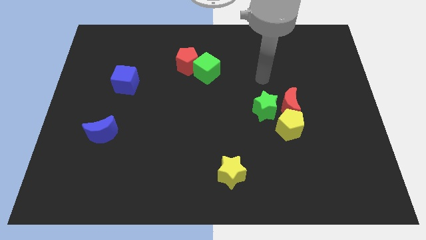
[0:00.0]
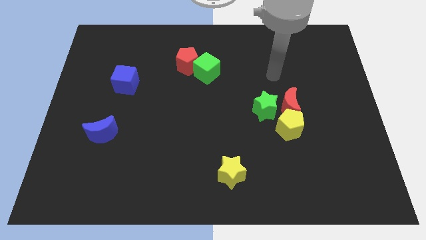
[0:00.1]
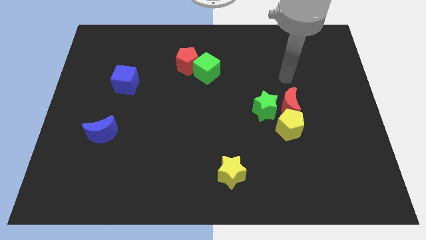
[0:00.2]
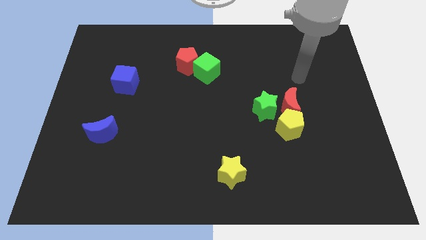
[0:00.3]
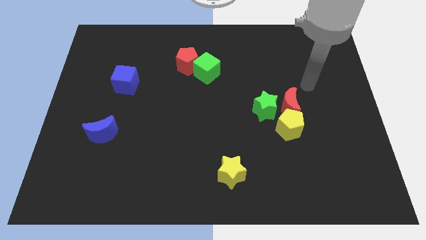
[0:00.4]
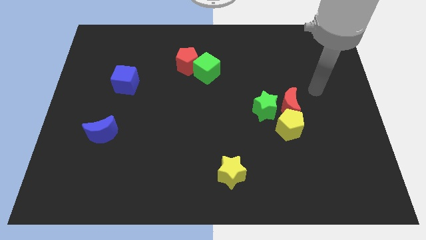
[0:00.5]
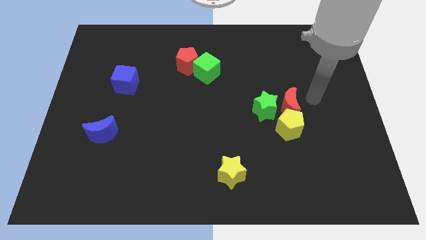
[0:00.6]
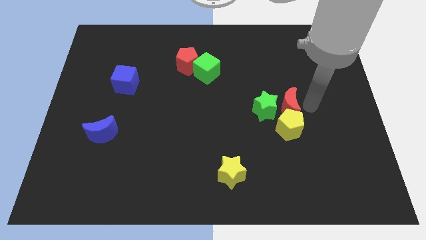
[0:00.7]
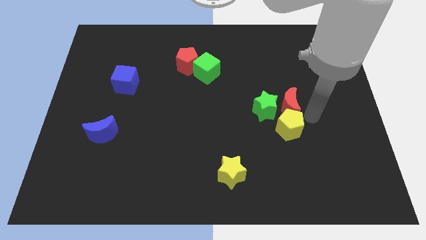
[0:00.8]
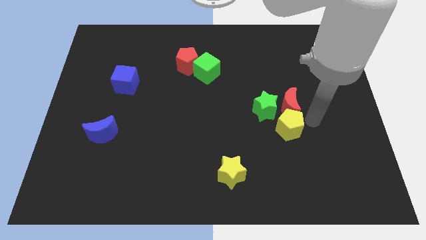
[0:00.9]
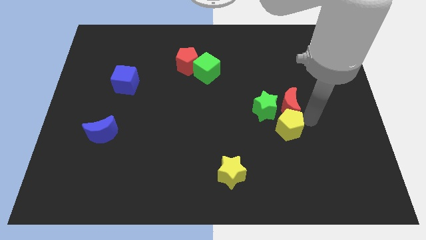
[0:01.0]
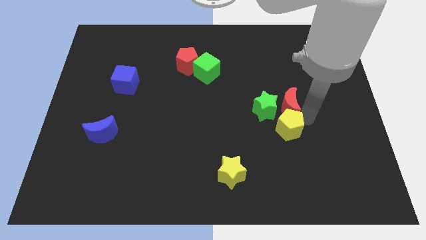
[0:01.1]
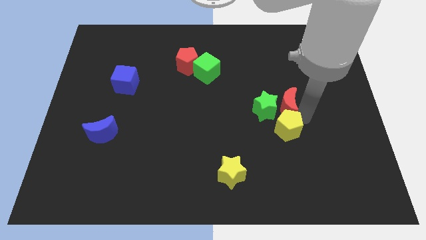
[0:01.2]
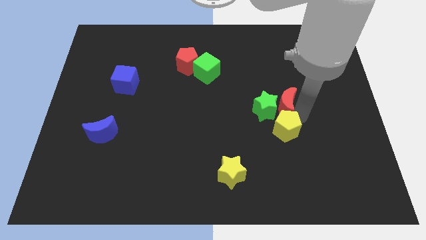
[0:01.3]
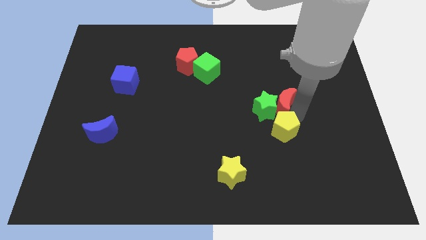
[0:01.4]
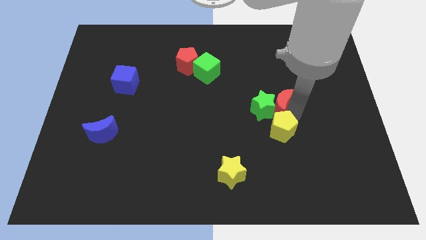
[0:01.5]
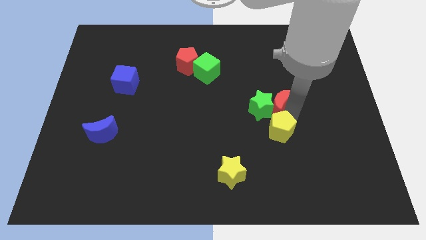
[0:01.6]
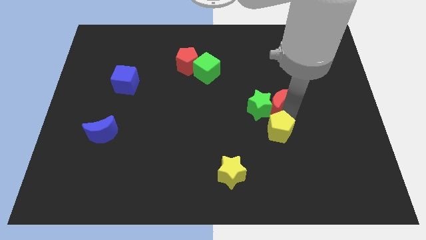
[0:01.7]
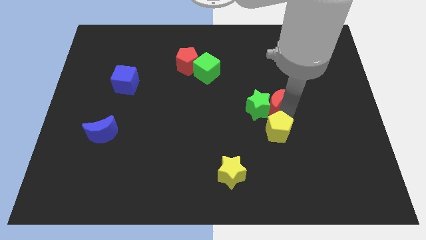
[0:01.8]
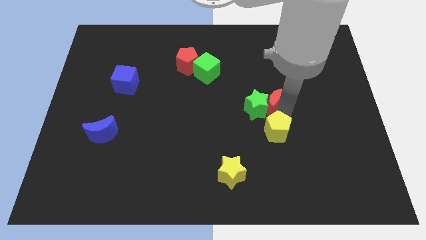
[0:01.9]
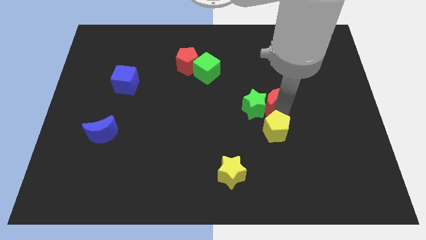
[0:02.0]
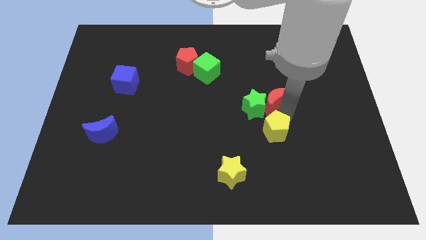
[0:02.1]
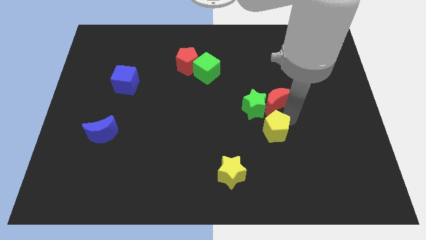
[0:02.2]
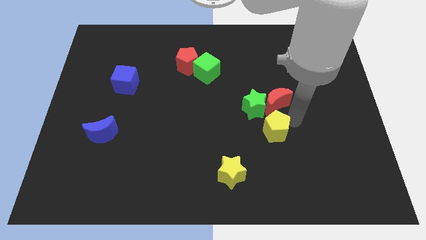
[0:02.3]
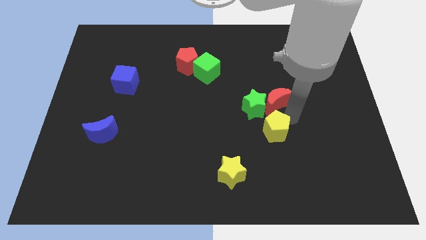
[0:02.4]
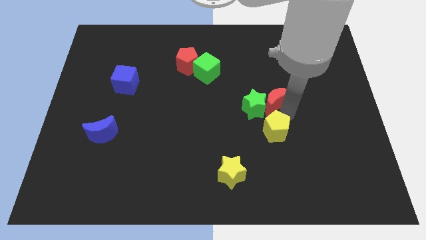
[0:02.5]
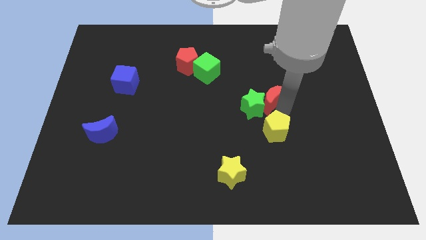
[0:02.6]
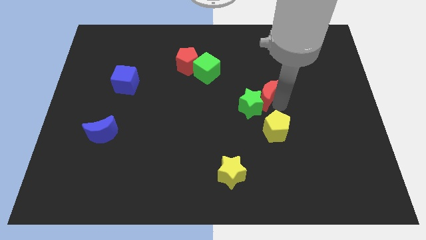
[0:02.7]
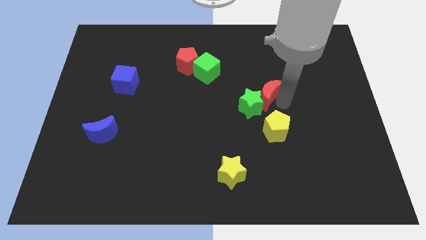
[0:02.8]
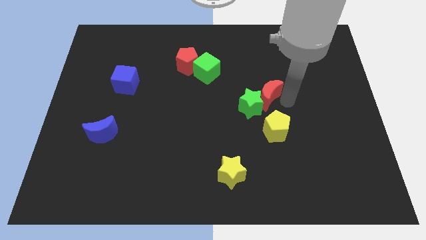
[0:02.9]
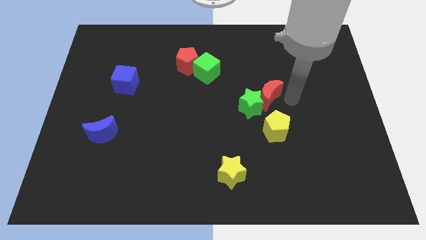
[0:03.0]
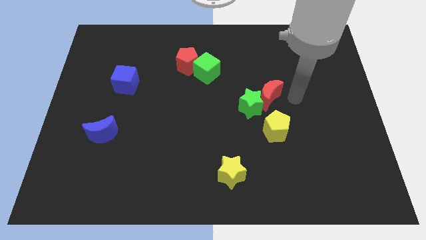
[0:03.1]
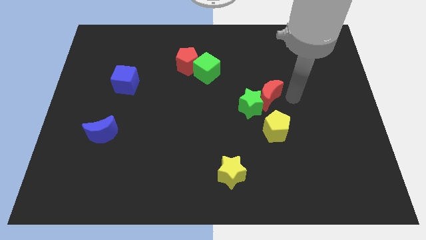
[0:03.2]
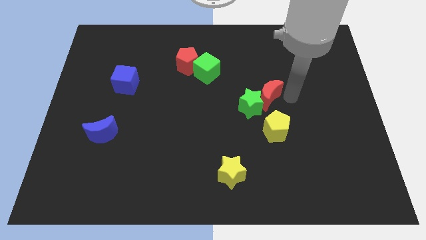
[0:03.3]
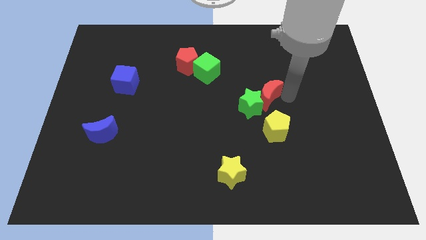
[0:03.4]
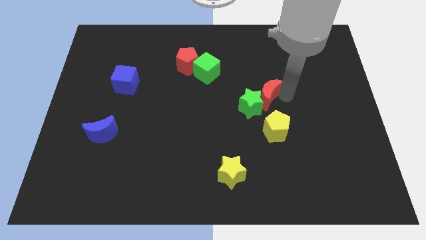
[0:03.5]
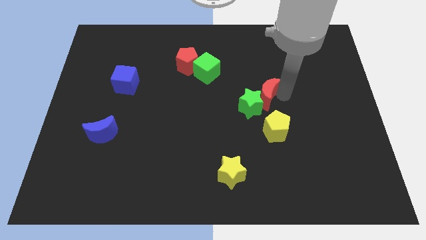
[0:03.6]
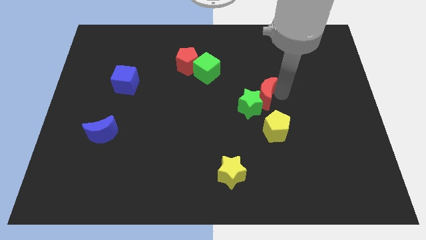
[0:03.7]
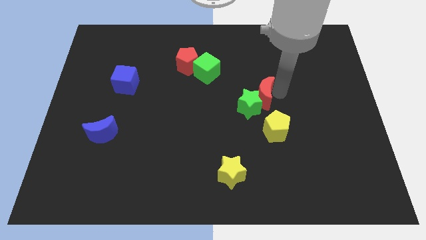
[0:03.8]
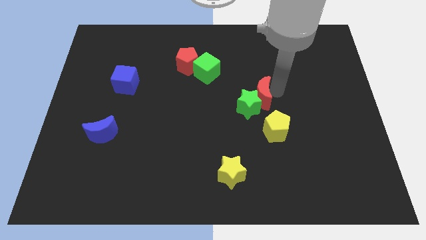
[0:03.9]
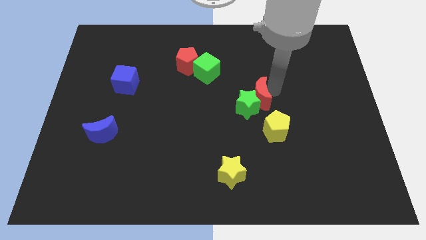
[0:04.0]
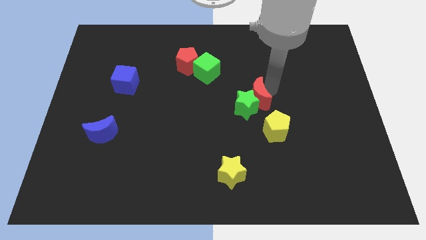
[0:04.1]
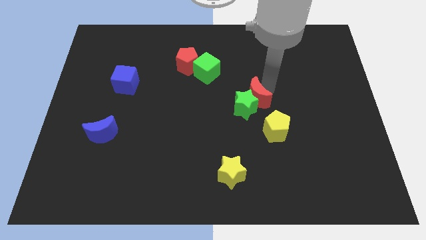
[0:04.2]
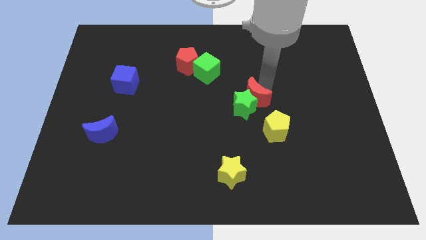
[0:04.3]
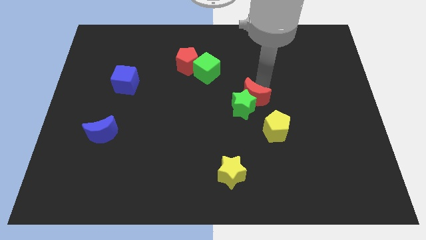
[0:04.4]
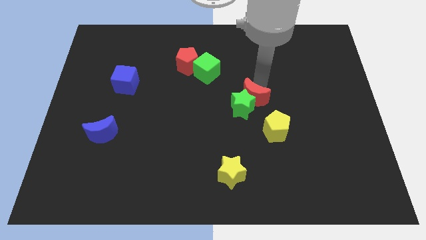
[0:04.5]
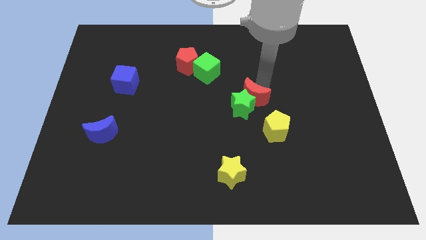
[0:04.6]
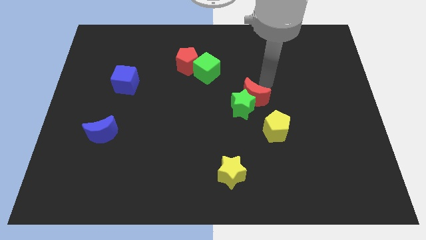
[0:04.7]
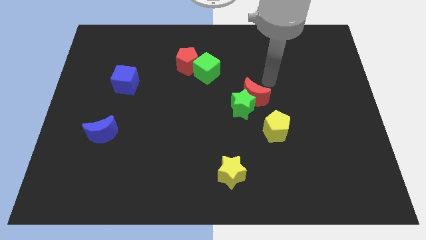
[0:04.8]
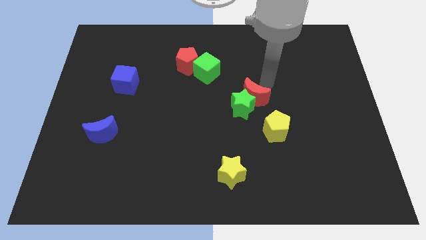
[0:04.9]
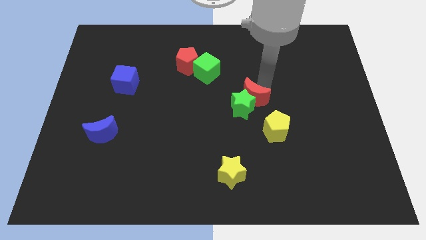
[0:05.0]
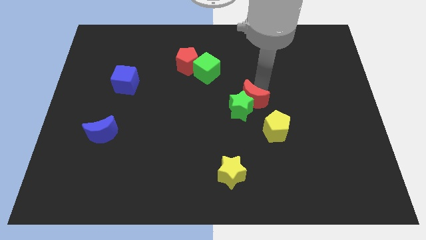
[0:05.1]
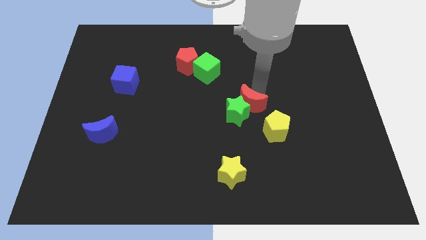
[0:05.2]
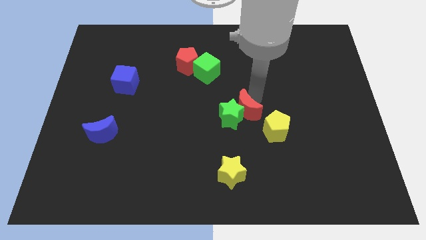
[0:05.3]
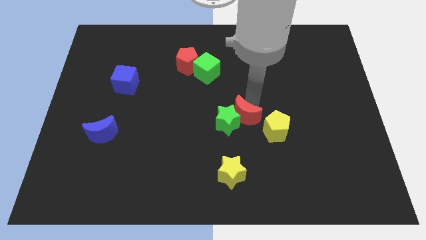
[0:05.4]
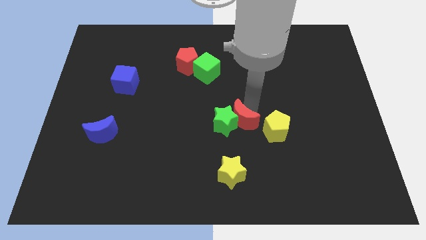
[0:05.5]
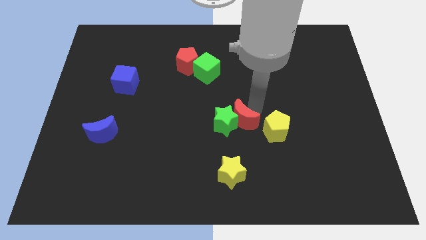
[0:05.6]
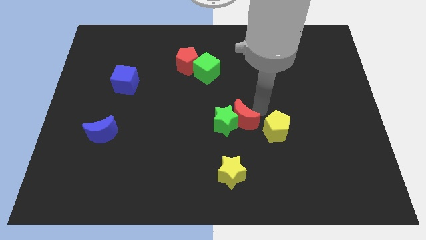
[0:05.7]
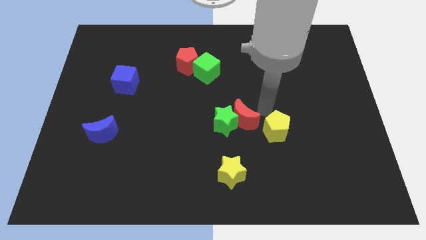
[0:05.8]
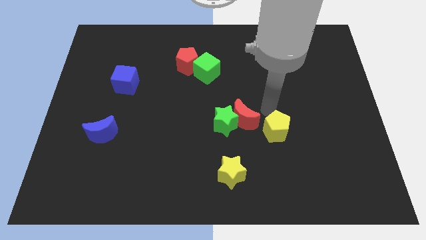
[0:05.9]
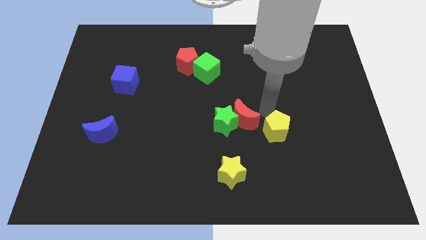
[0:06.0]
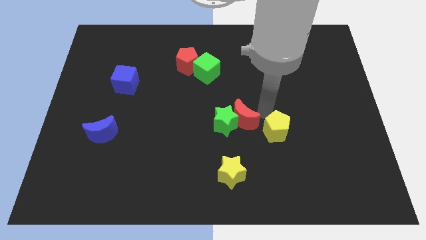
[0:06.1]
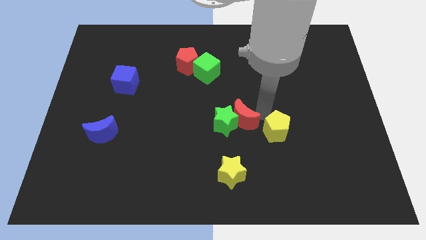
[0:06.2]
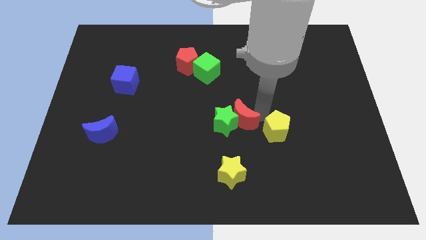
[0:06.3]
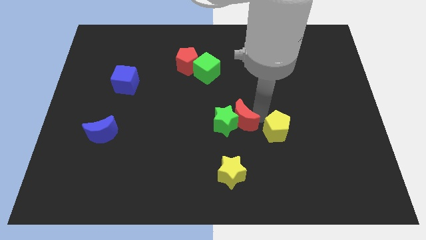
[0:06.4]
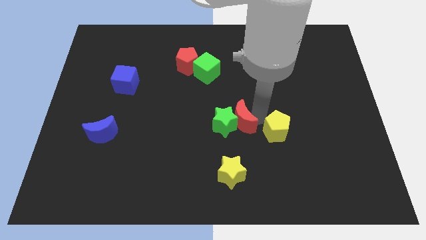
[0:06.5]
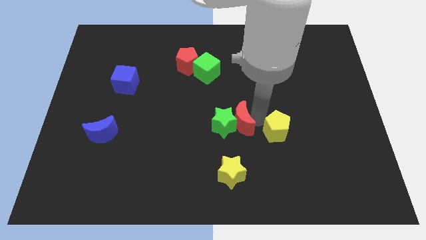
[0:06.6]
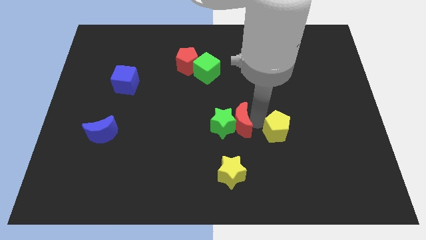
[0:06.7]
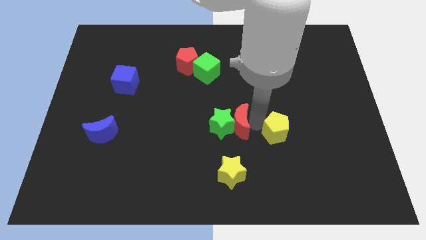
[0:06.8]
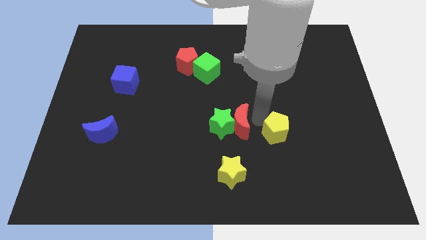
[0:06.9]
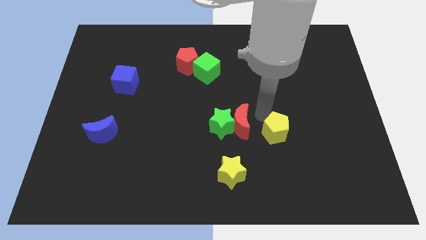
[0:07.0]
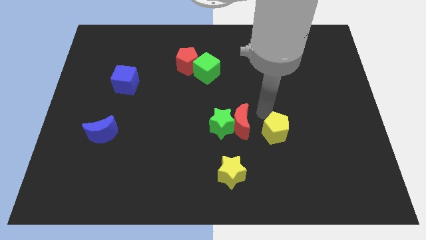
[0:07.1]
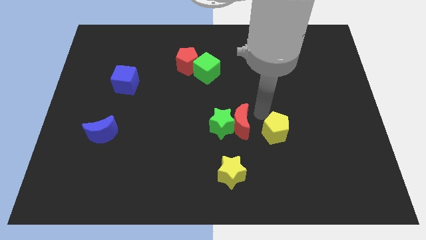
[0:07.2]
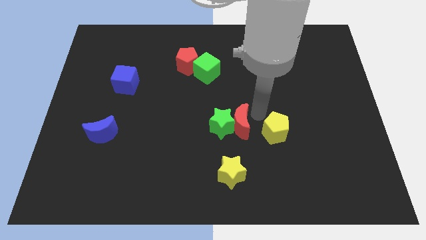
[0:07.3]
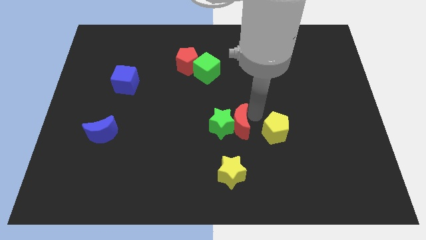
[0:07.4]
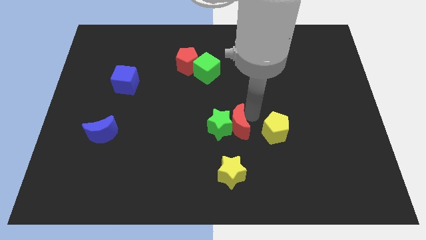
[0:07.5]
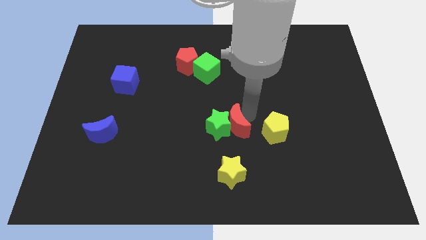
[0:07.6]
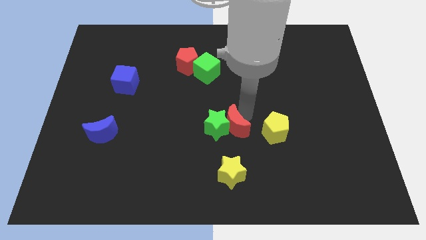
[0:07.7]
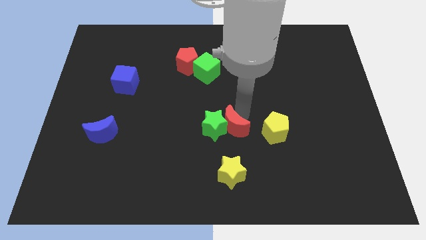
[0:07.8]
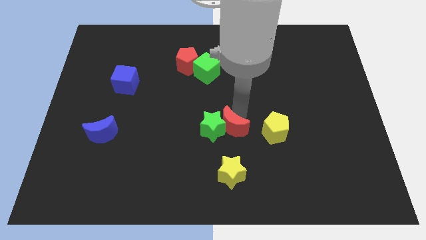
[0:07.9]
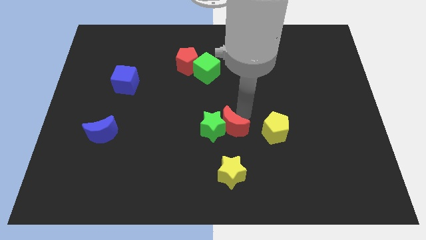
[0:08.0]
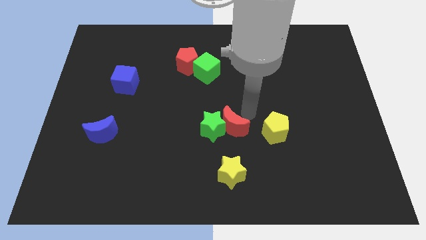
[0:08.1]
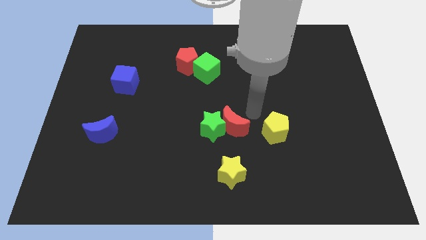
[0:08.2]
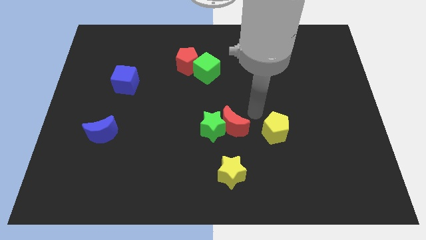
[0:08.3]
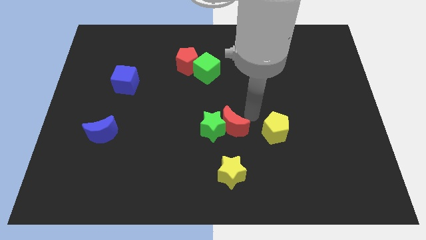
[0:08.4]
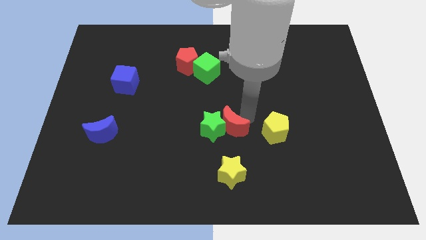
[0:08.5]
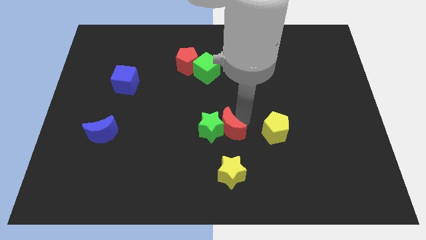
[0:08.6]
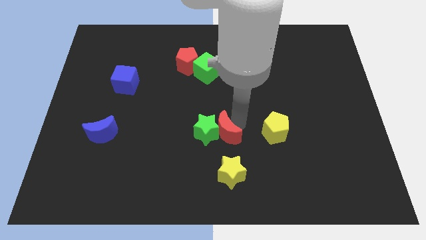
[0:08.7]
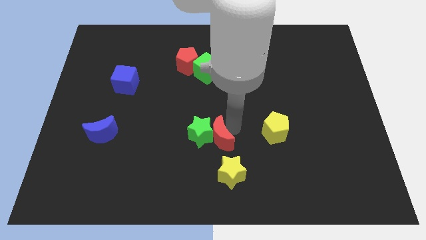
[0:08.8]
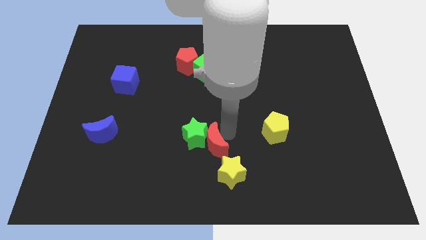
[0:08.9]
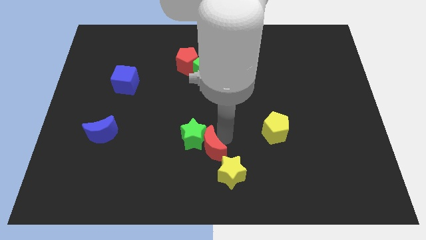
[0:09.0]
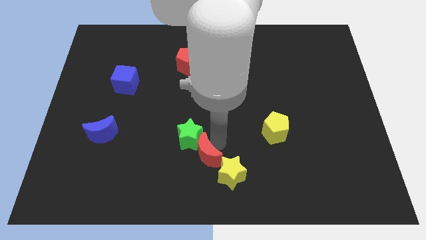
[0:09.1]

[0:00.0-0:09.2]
slide the red moon to the left of the yellow star
